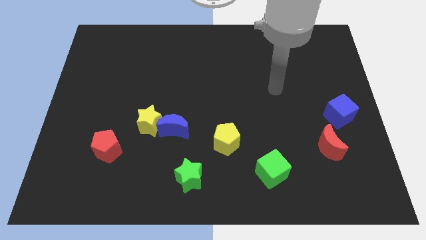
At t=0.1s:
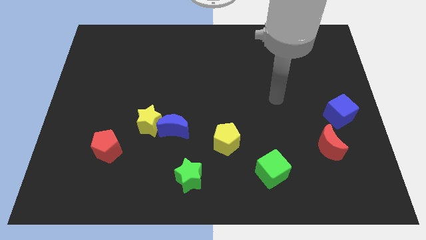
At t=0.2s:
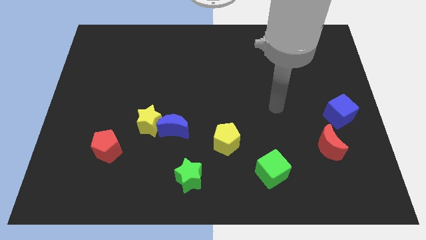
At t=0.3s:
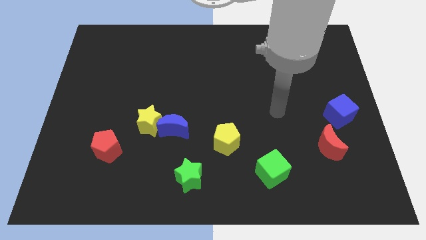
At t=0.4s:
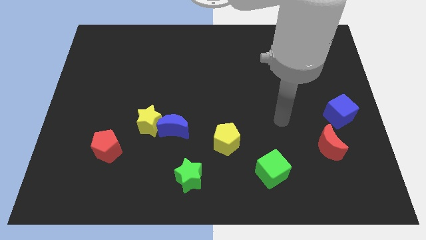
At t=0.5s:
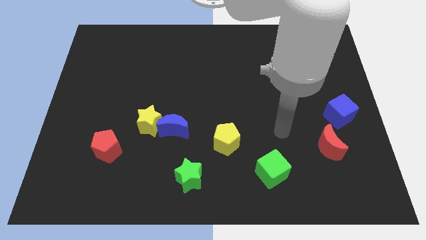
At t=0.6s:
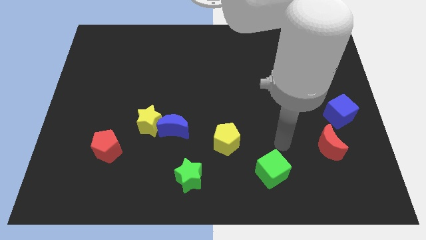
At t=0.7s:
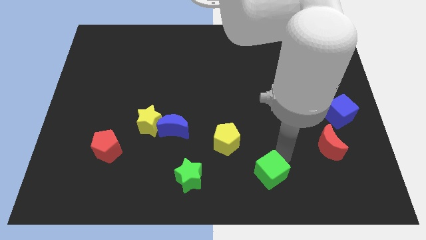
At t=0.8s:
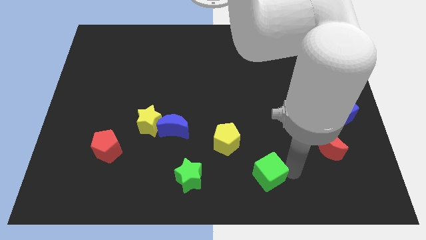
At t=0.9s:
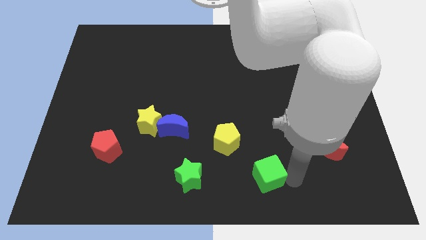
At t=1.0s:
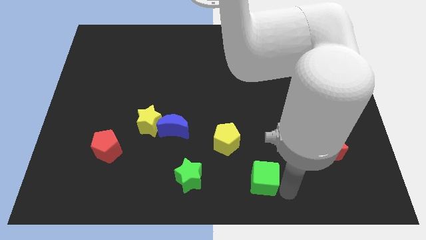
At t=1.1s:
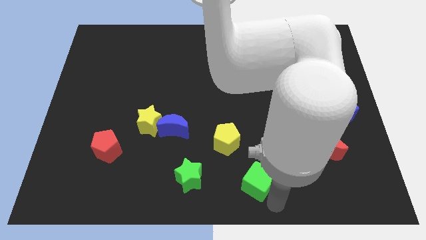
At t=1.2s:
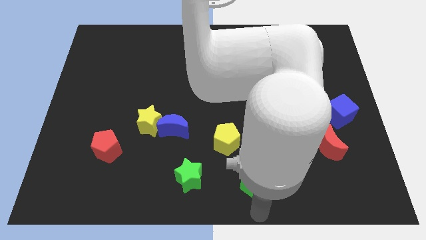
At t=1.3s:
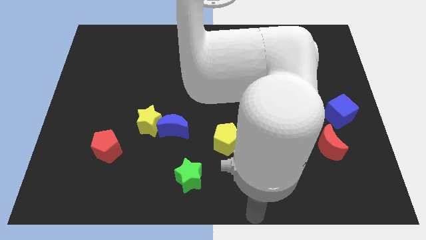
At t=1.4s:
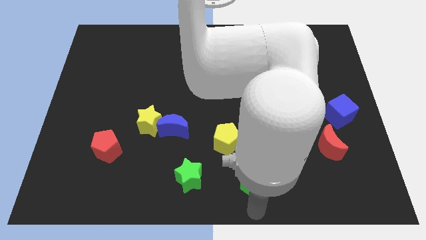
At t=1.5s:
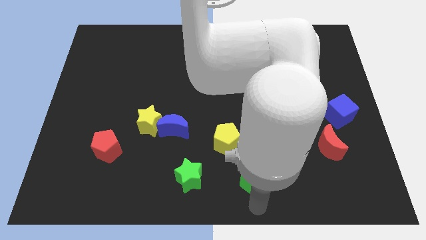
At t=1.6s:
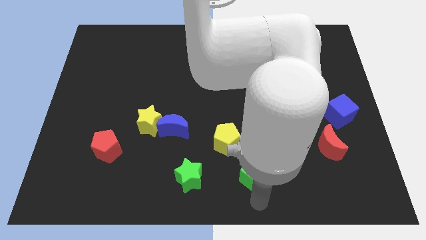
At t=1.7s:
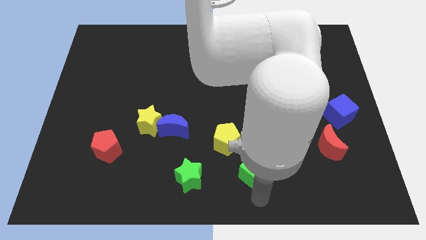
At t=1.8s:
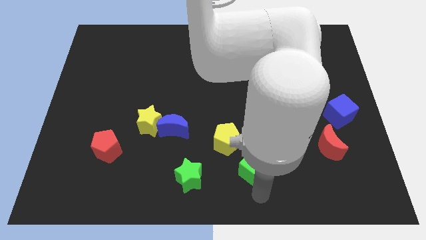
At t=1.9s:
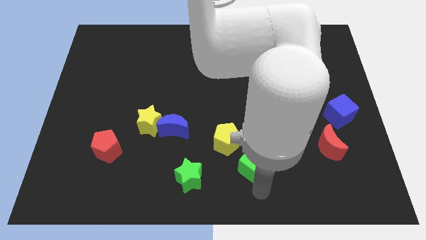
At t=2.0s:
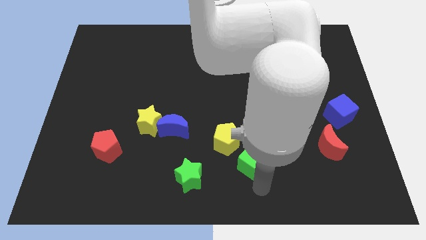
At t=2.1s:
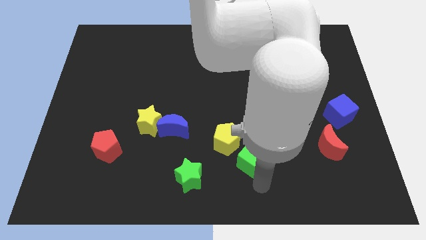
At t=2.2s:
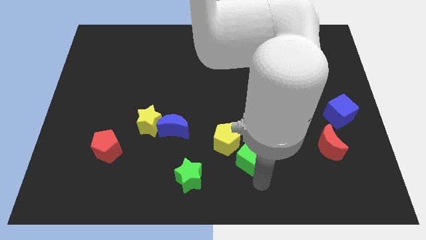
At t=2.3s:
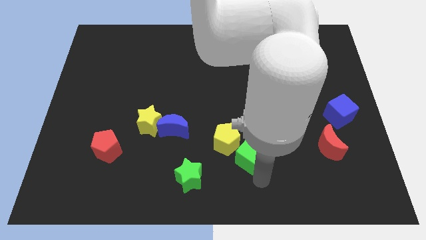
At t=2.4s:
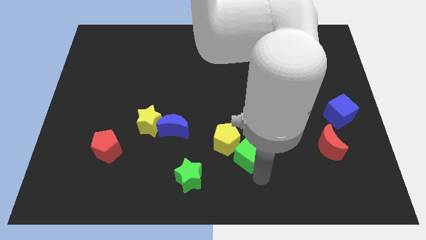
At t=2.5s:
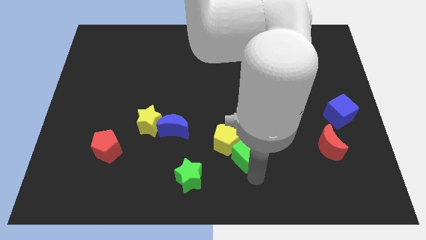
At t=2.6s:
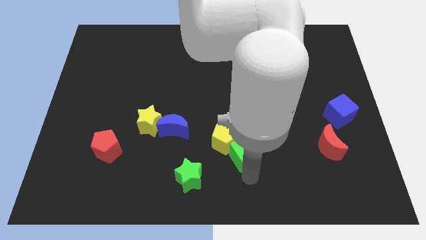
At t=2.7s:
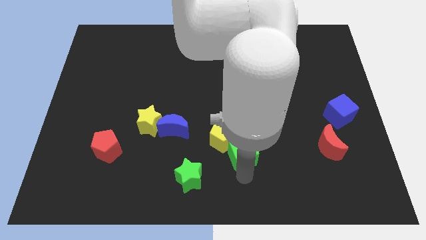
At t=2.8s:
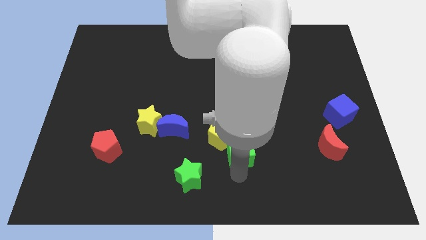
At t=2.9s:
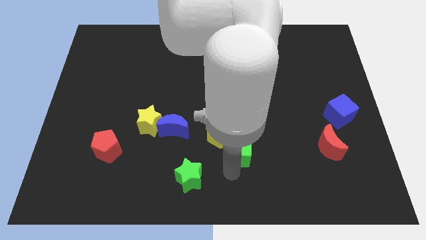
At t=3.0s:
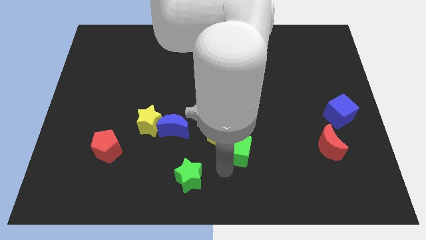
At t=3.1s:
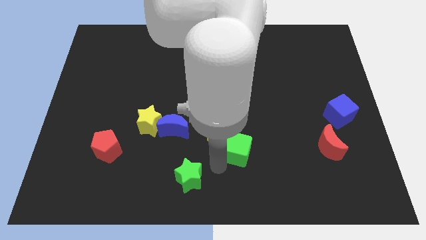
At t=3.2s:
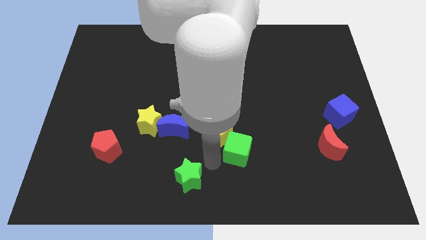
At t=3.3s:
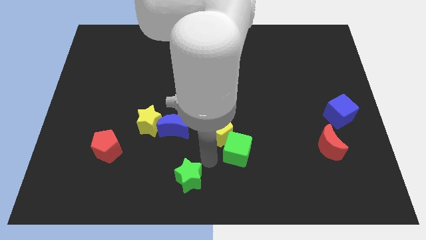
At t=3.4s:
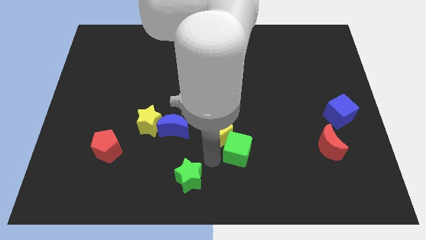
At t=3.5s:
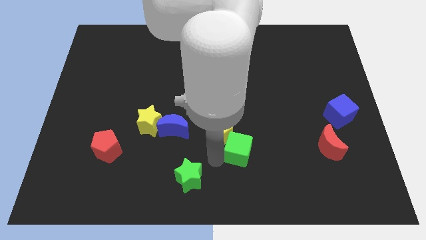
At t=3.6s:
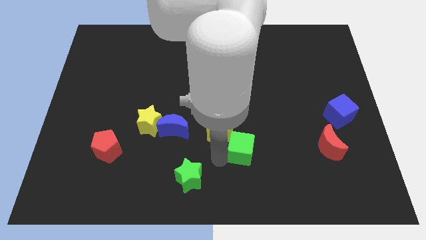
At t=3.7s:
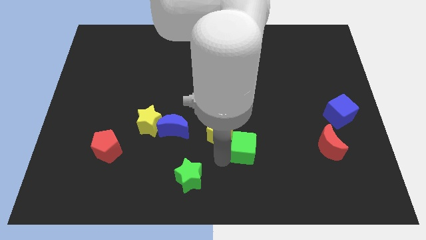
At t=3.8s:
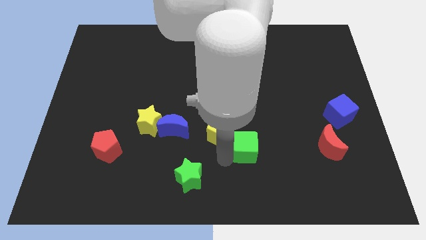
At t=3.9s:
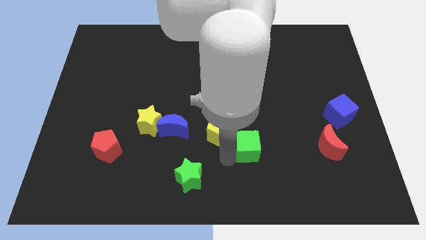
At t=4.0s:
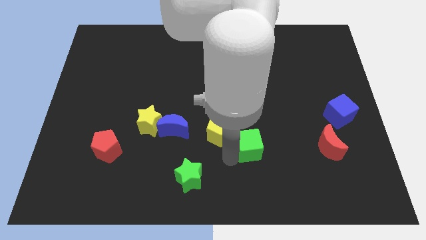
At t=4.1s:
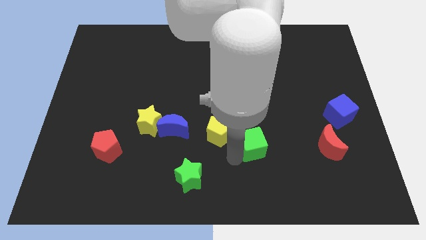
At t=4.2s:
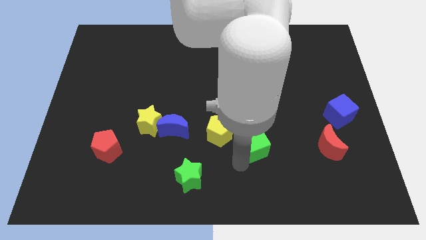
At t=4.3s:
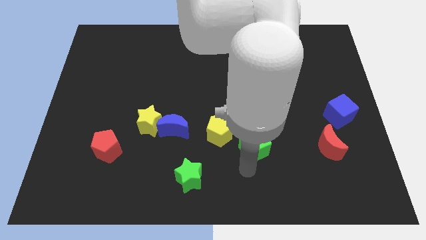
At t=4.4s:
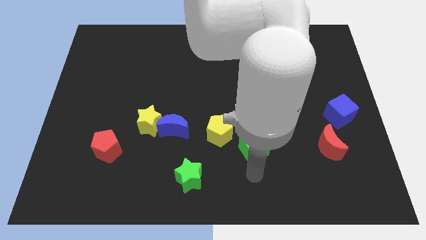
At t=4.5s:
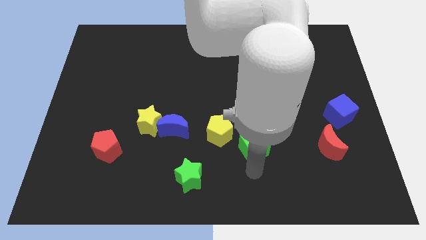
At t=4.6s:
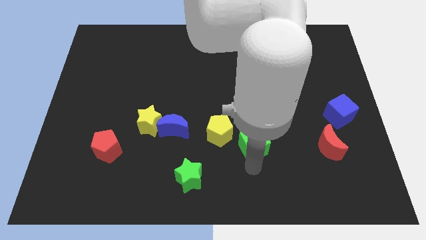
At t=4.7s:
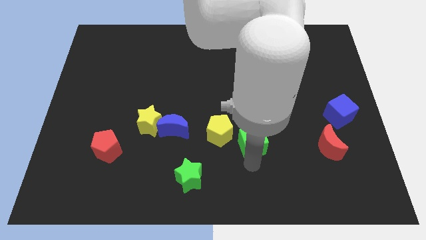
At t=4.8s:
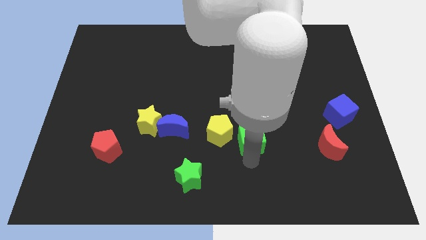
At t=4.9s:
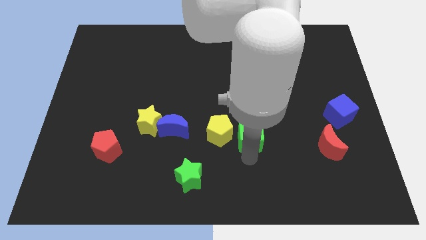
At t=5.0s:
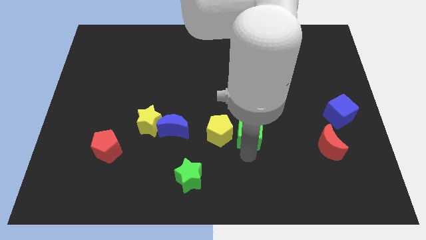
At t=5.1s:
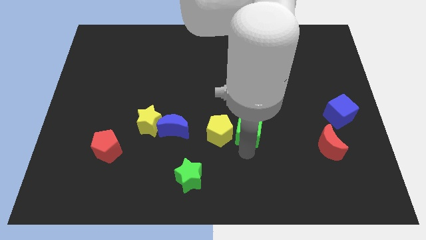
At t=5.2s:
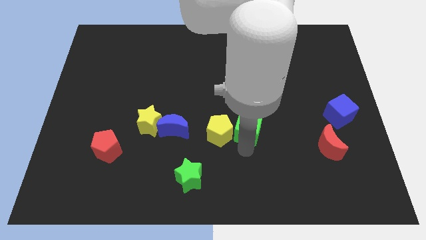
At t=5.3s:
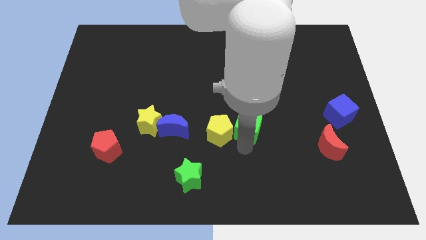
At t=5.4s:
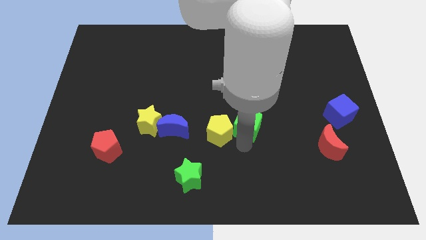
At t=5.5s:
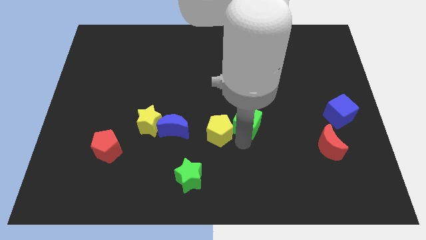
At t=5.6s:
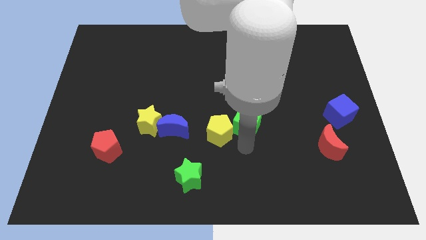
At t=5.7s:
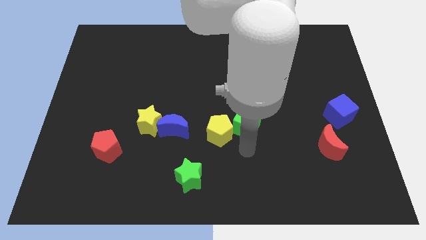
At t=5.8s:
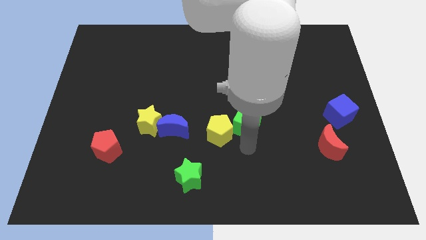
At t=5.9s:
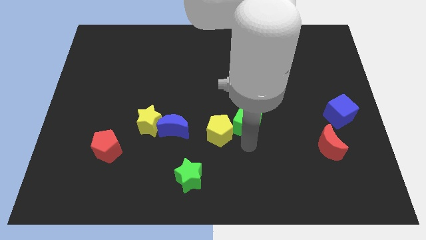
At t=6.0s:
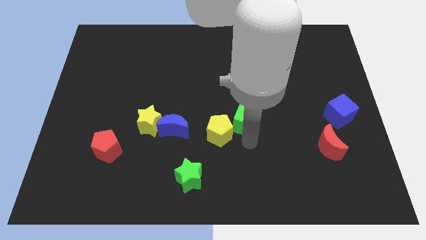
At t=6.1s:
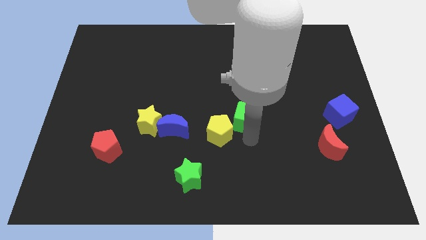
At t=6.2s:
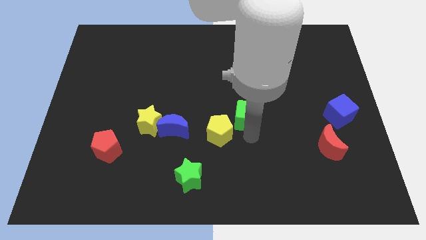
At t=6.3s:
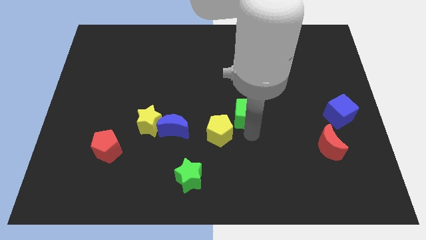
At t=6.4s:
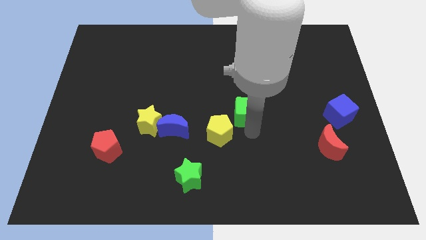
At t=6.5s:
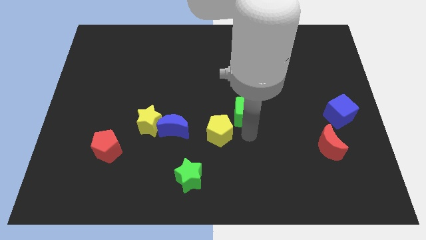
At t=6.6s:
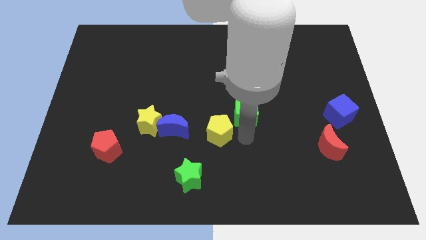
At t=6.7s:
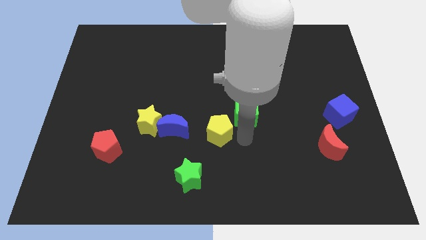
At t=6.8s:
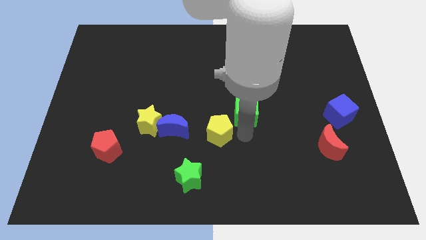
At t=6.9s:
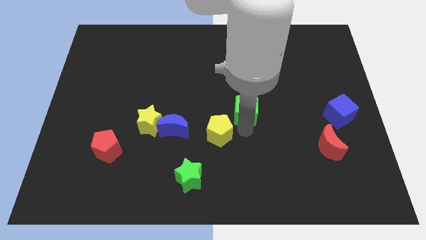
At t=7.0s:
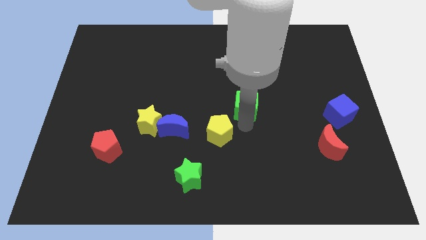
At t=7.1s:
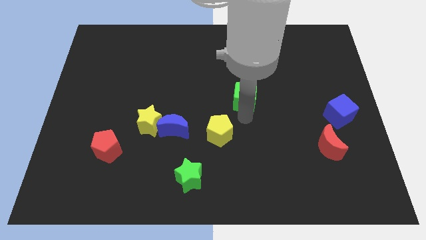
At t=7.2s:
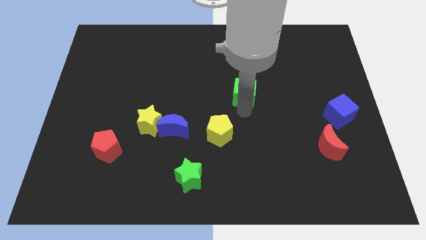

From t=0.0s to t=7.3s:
move the green cube upwards

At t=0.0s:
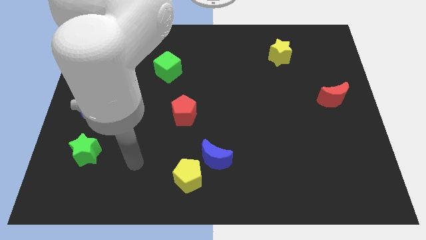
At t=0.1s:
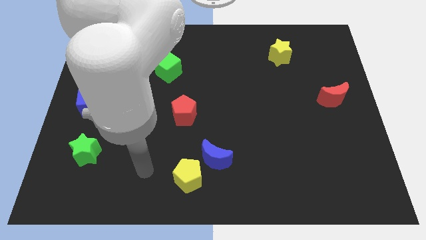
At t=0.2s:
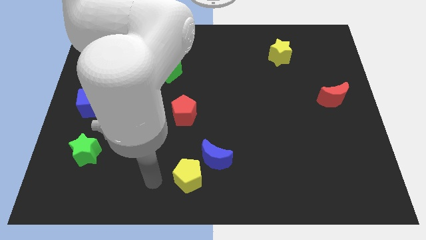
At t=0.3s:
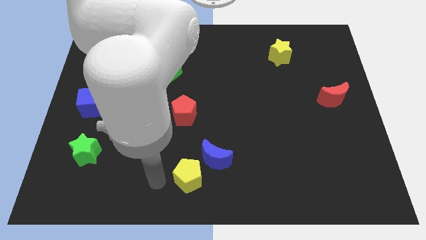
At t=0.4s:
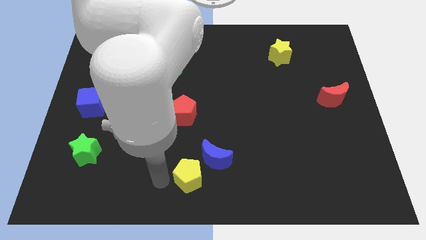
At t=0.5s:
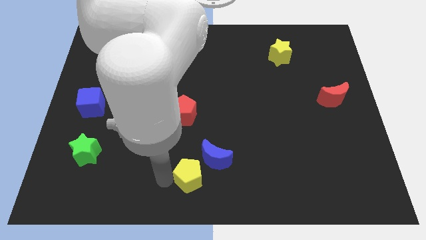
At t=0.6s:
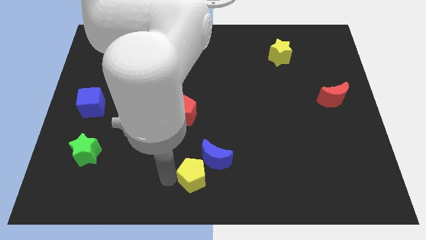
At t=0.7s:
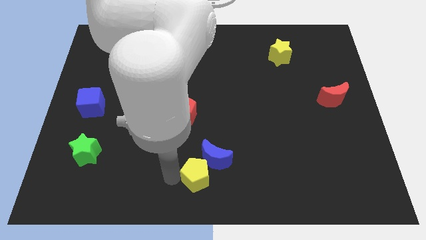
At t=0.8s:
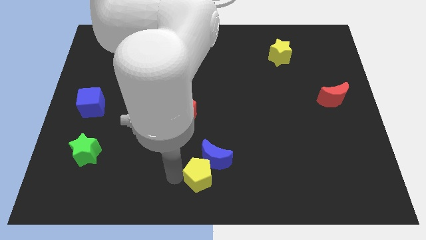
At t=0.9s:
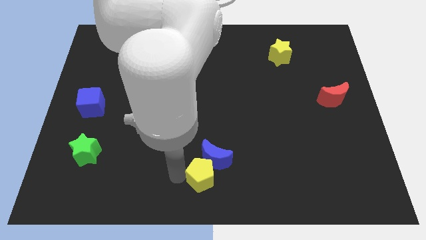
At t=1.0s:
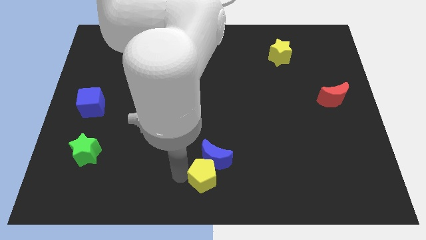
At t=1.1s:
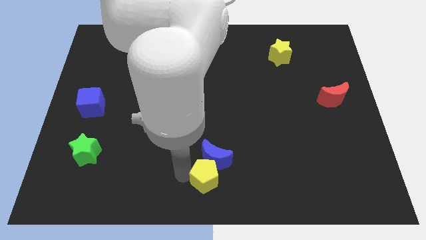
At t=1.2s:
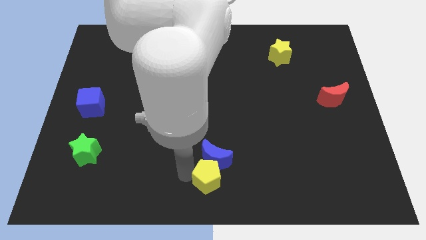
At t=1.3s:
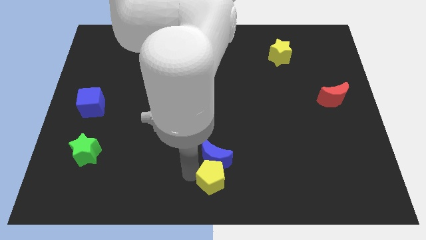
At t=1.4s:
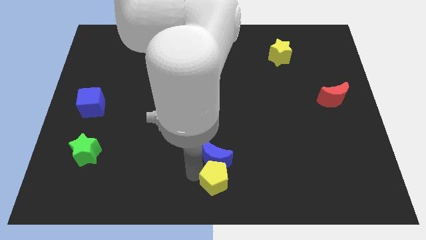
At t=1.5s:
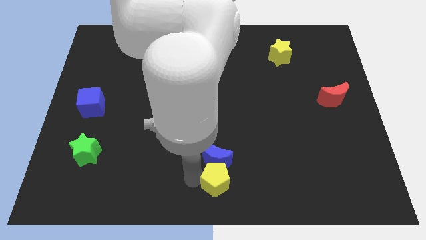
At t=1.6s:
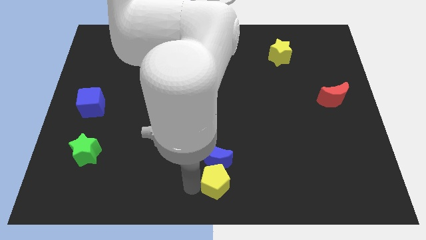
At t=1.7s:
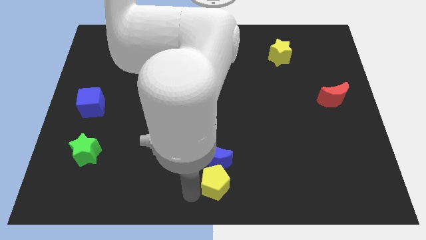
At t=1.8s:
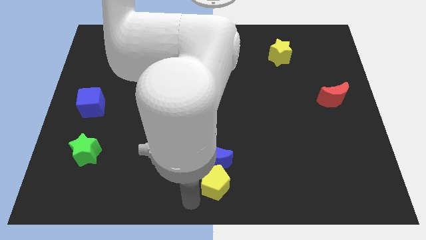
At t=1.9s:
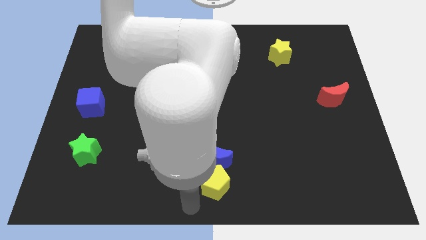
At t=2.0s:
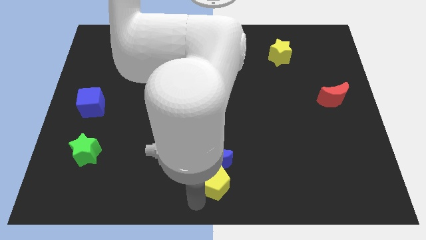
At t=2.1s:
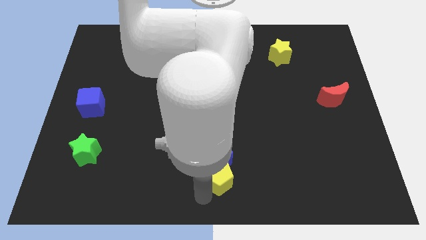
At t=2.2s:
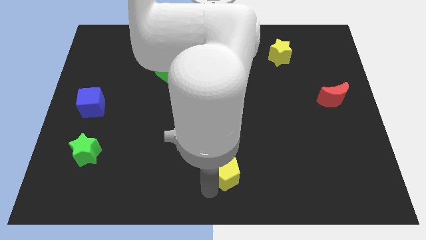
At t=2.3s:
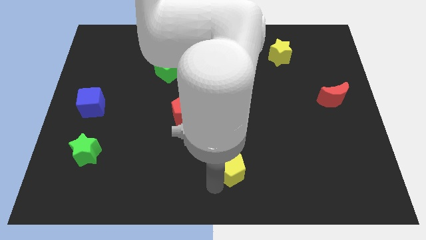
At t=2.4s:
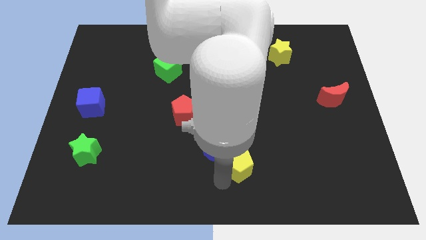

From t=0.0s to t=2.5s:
slide the yellow pentagon up and then right a little
